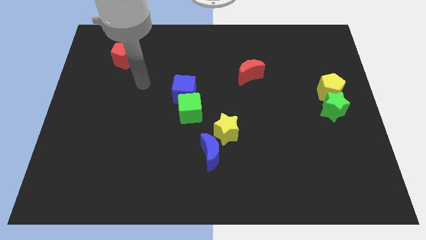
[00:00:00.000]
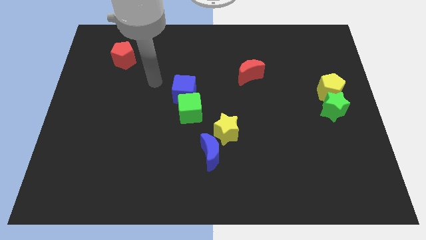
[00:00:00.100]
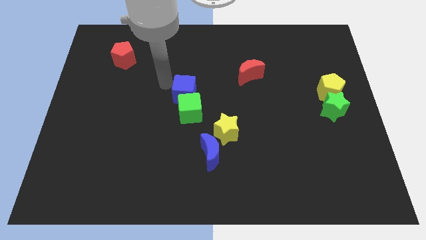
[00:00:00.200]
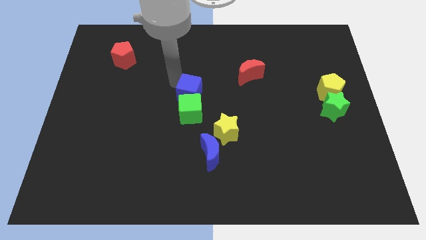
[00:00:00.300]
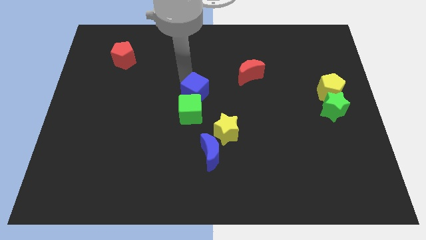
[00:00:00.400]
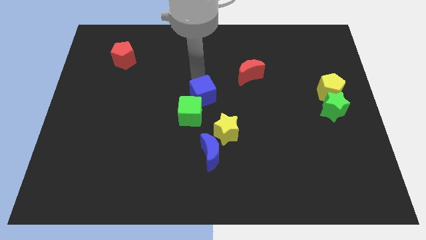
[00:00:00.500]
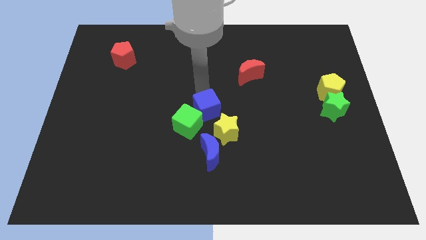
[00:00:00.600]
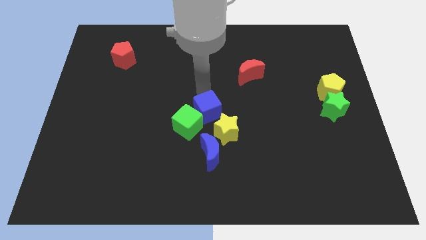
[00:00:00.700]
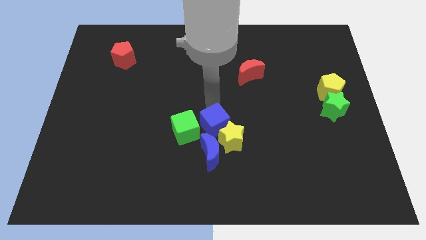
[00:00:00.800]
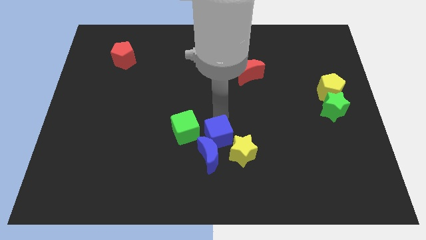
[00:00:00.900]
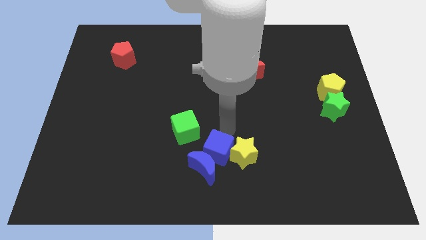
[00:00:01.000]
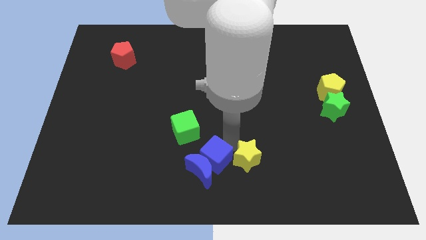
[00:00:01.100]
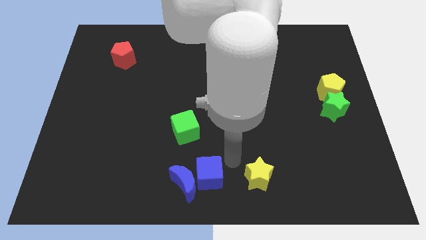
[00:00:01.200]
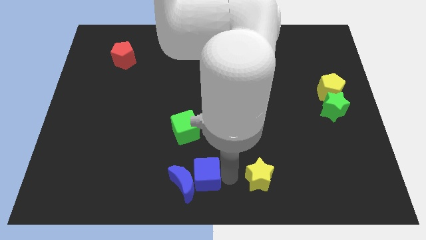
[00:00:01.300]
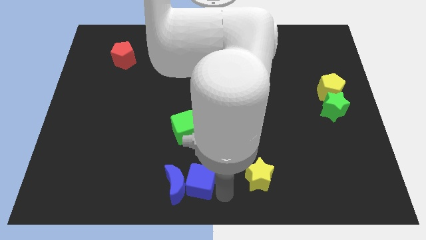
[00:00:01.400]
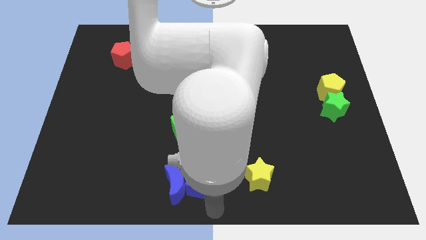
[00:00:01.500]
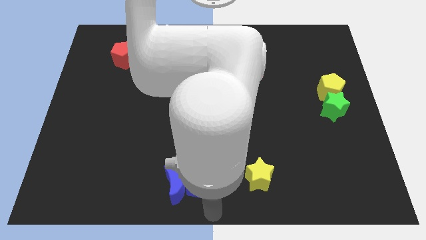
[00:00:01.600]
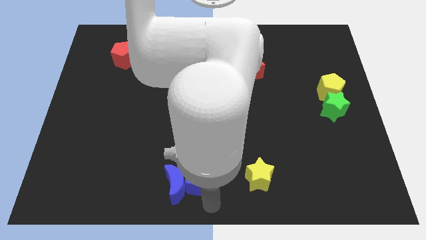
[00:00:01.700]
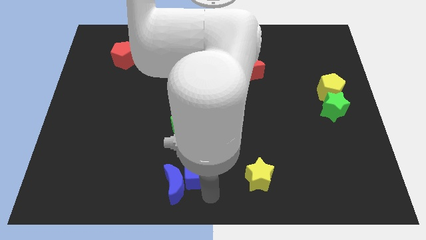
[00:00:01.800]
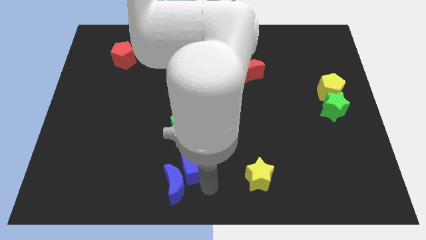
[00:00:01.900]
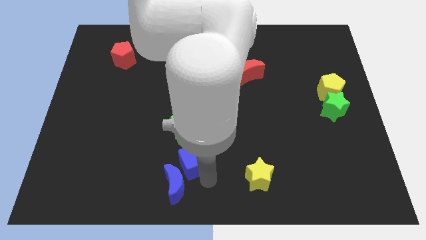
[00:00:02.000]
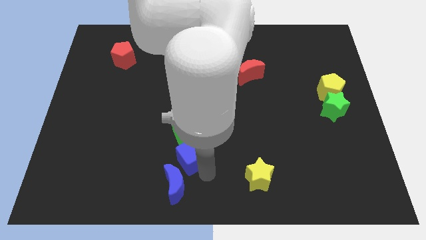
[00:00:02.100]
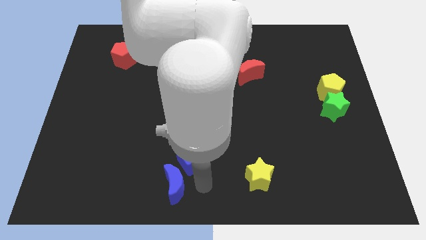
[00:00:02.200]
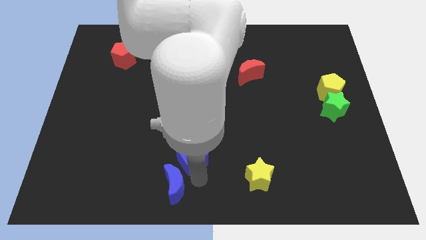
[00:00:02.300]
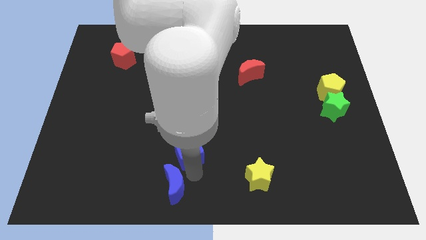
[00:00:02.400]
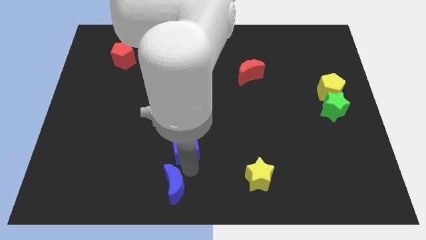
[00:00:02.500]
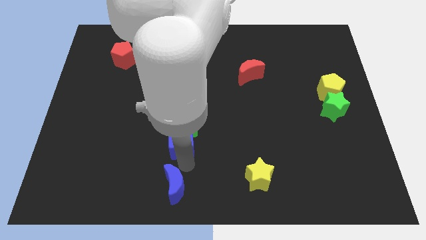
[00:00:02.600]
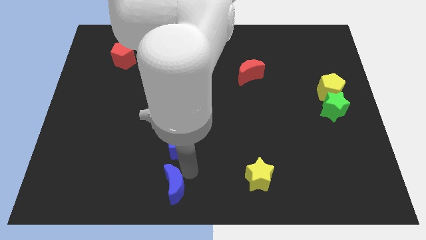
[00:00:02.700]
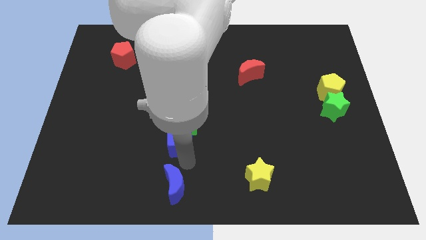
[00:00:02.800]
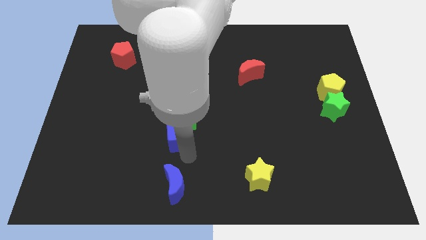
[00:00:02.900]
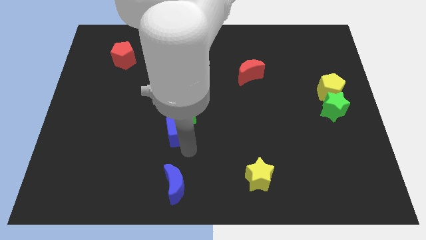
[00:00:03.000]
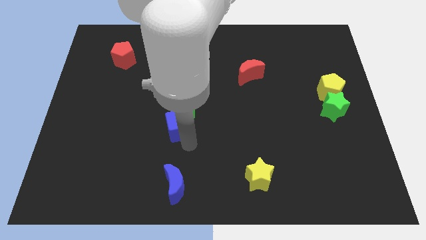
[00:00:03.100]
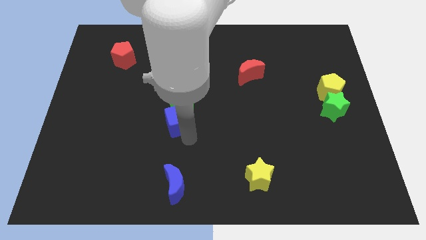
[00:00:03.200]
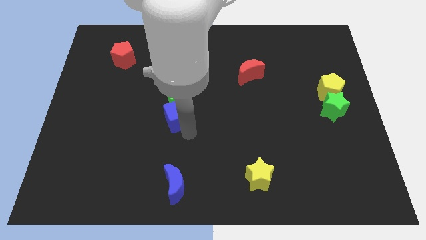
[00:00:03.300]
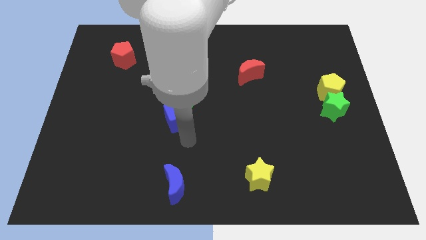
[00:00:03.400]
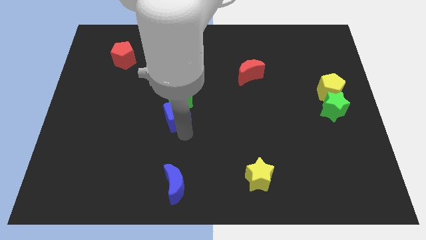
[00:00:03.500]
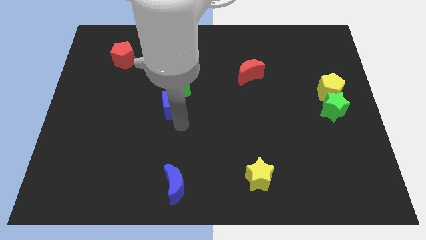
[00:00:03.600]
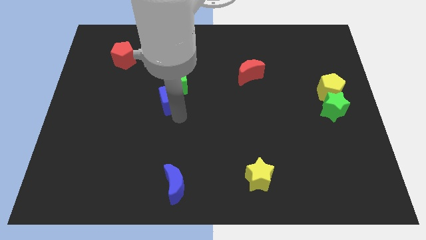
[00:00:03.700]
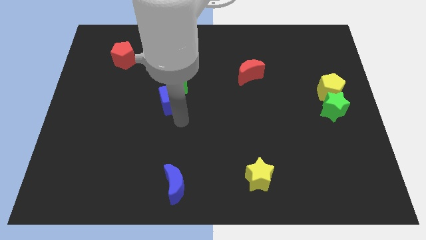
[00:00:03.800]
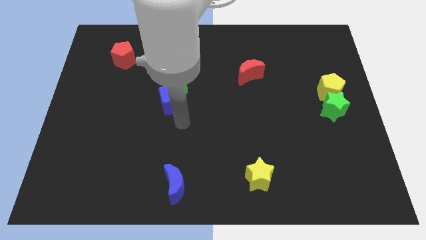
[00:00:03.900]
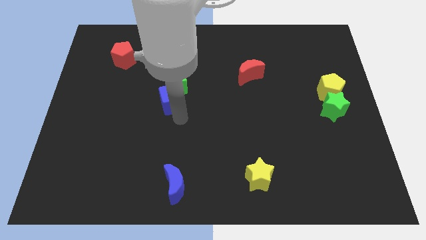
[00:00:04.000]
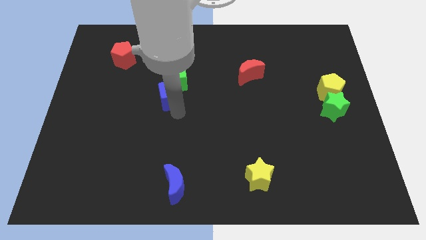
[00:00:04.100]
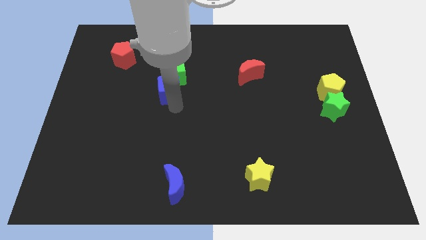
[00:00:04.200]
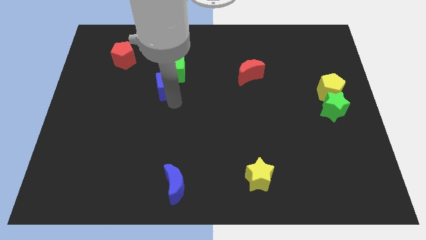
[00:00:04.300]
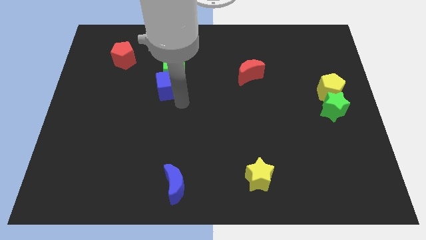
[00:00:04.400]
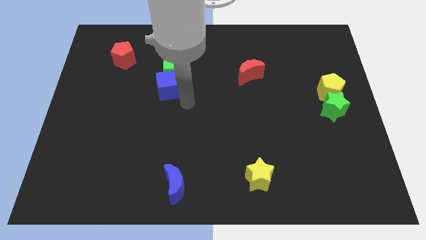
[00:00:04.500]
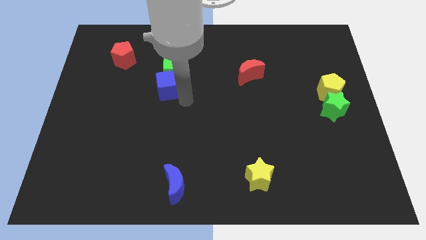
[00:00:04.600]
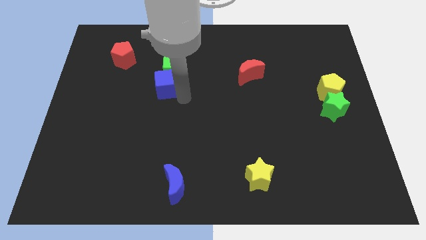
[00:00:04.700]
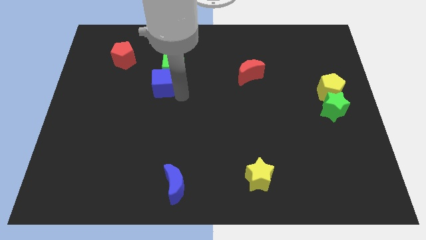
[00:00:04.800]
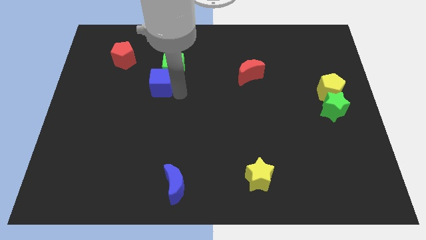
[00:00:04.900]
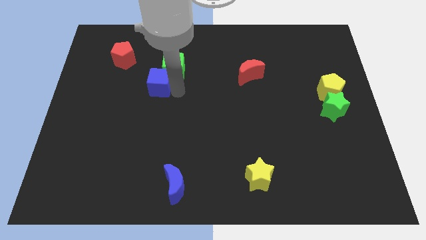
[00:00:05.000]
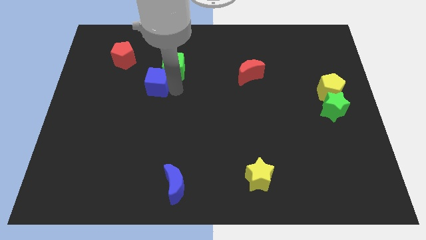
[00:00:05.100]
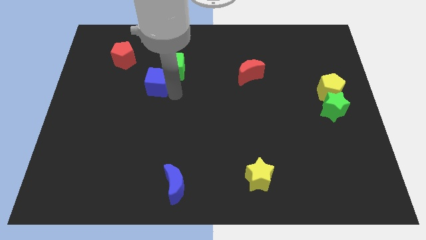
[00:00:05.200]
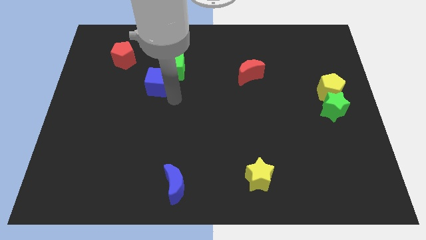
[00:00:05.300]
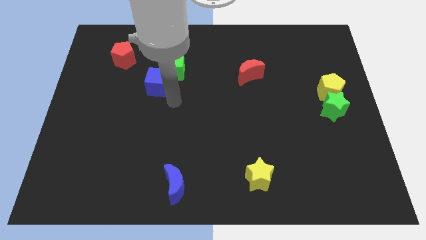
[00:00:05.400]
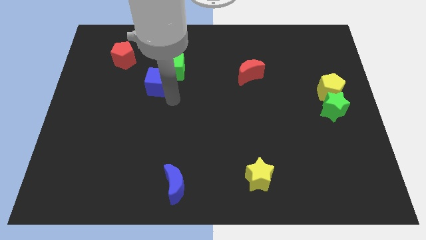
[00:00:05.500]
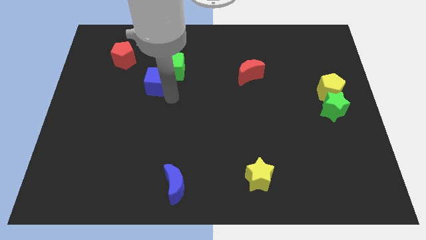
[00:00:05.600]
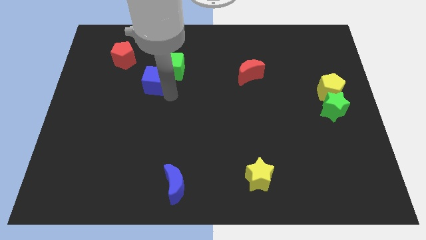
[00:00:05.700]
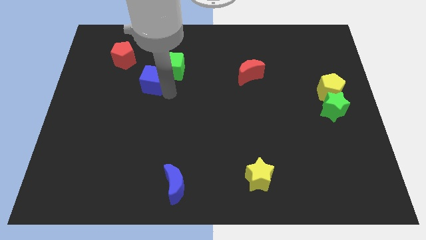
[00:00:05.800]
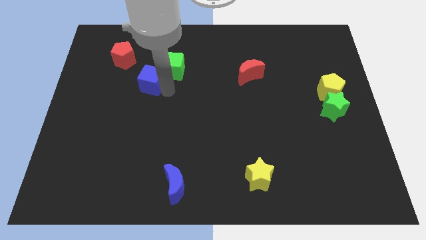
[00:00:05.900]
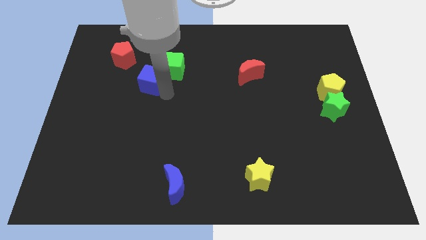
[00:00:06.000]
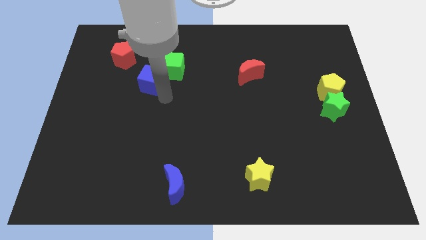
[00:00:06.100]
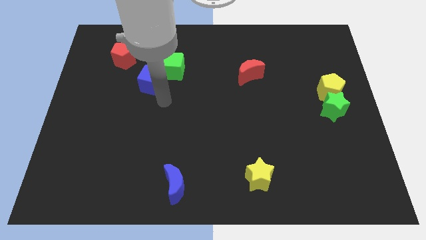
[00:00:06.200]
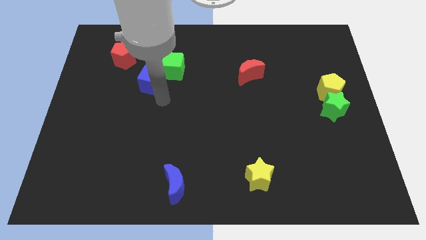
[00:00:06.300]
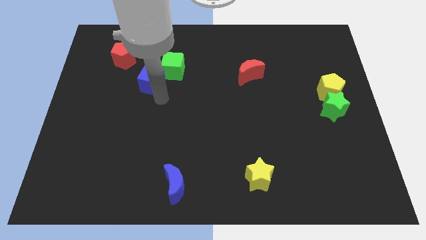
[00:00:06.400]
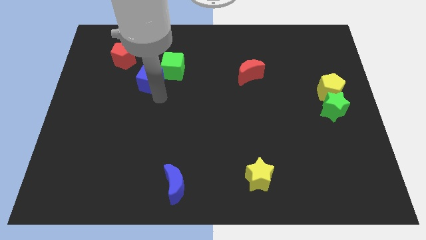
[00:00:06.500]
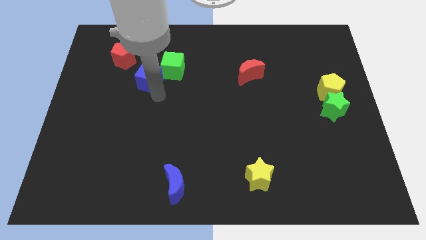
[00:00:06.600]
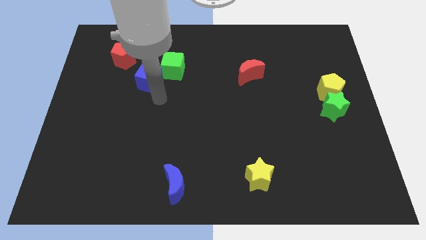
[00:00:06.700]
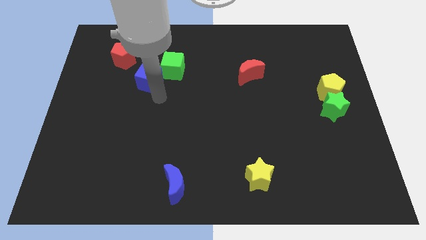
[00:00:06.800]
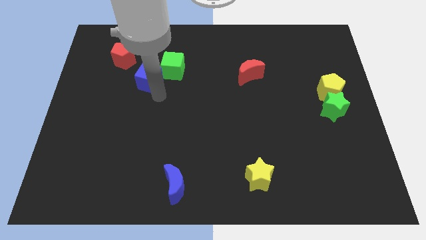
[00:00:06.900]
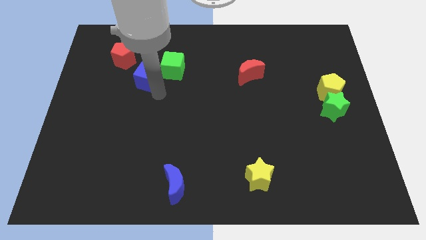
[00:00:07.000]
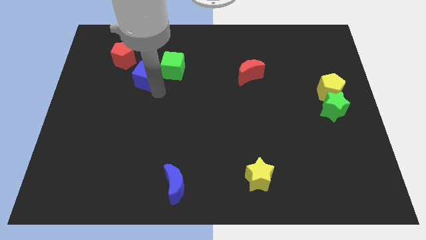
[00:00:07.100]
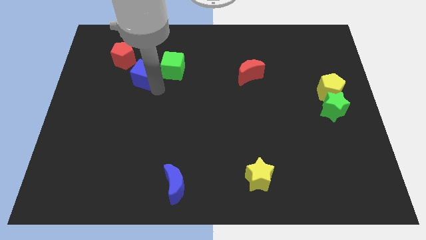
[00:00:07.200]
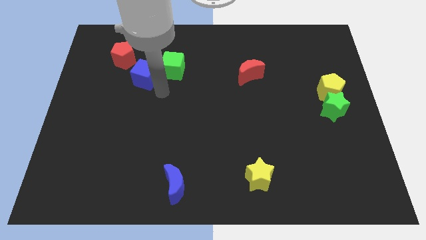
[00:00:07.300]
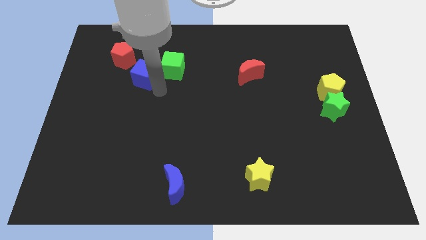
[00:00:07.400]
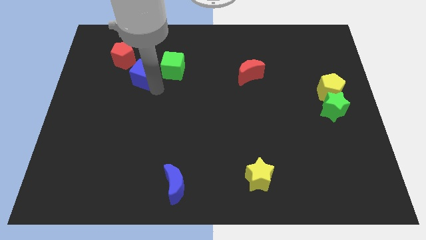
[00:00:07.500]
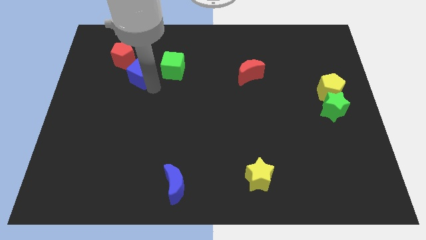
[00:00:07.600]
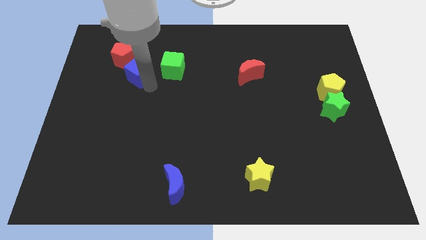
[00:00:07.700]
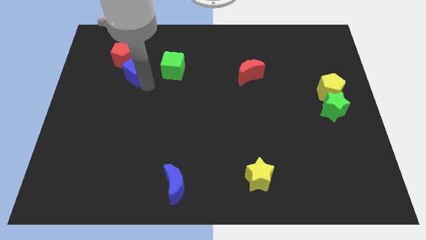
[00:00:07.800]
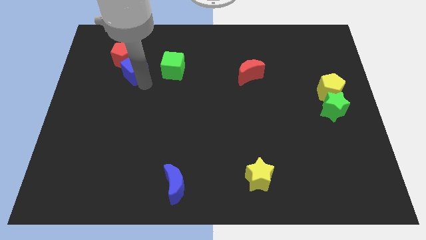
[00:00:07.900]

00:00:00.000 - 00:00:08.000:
put the blue cube next to the red pentagon
